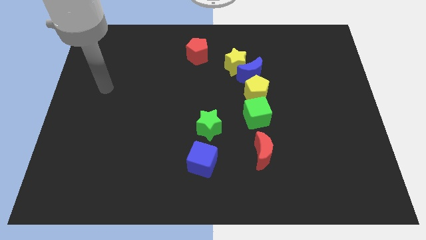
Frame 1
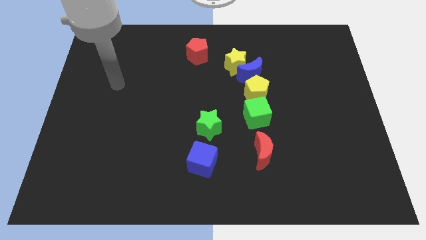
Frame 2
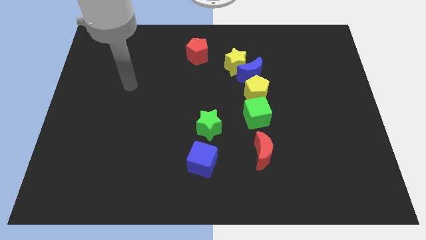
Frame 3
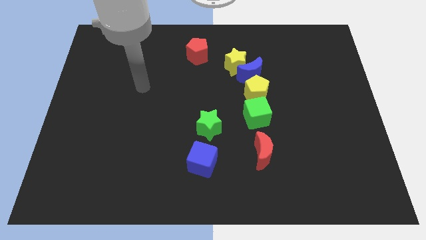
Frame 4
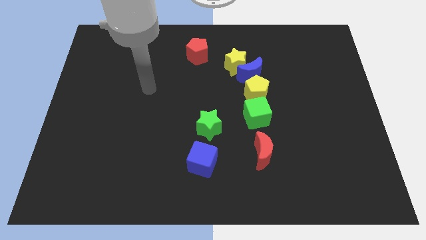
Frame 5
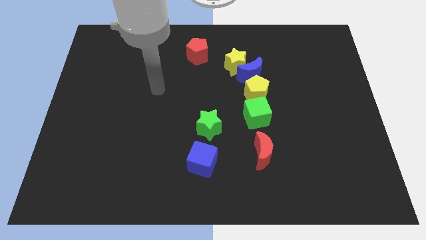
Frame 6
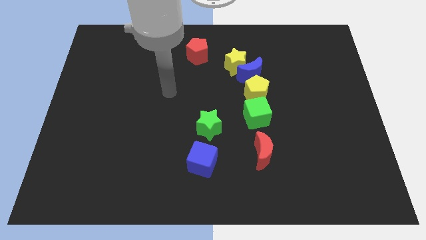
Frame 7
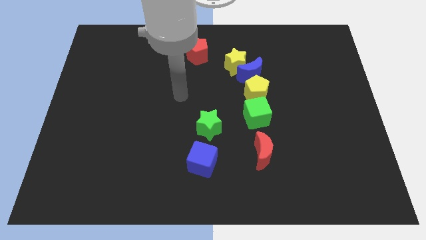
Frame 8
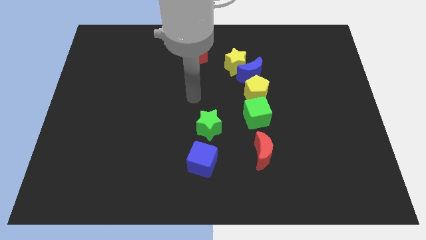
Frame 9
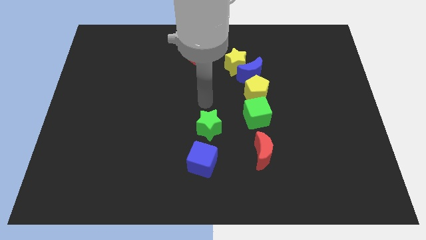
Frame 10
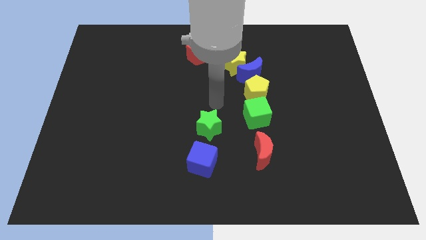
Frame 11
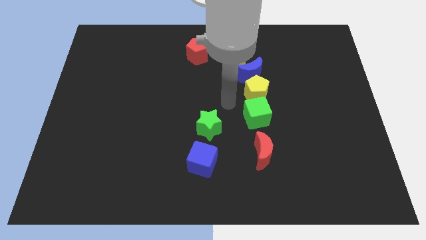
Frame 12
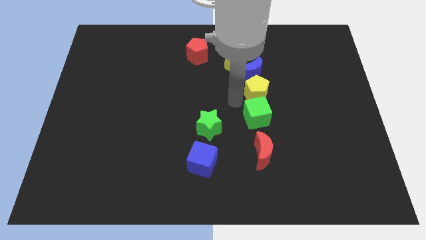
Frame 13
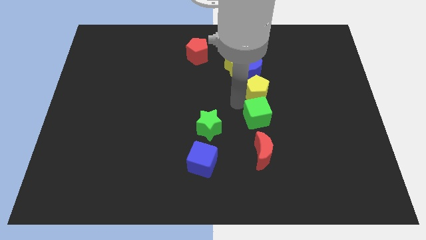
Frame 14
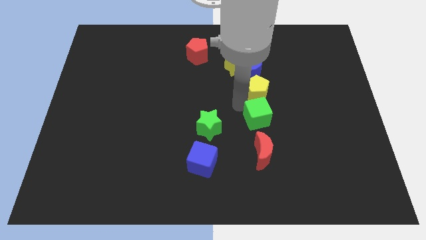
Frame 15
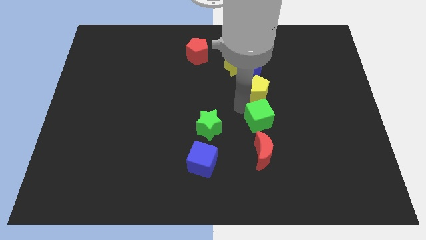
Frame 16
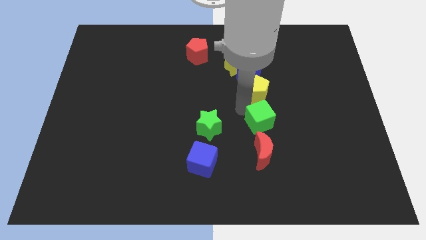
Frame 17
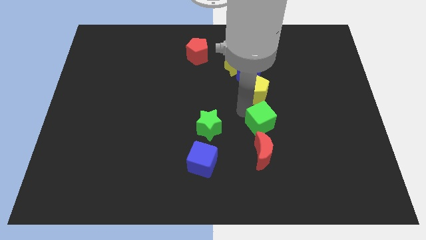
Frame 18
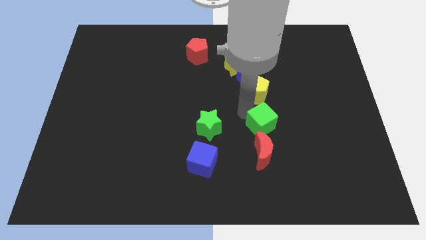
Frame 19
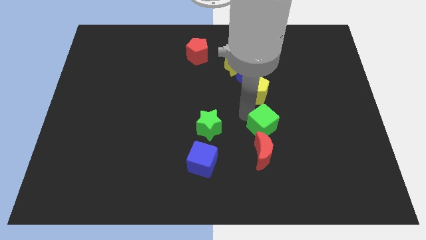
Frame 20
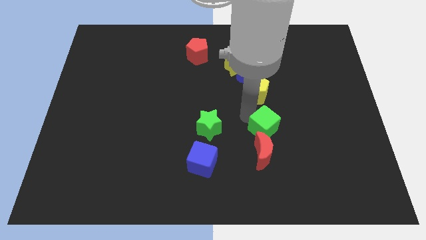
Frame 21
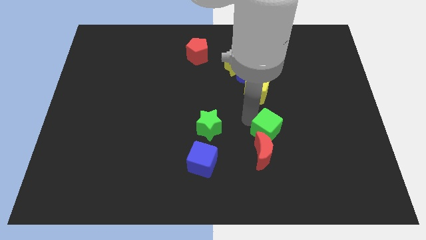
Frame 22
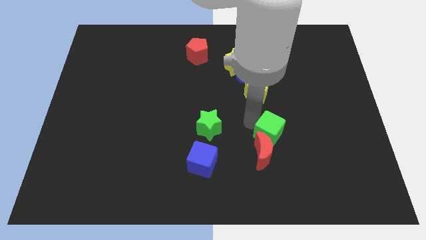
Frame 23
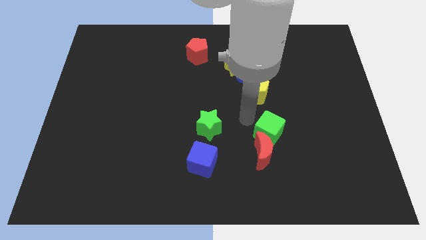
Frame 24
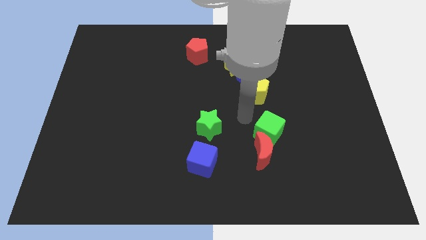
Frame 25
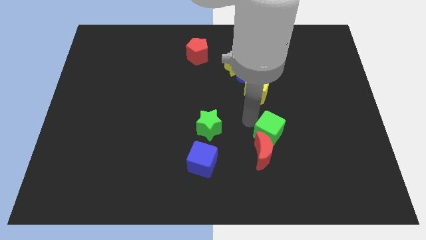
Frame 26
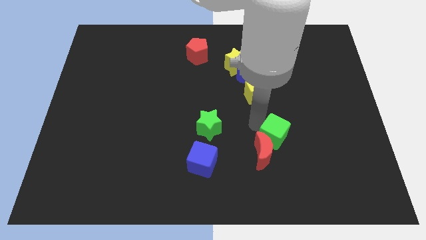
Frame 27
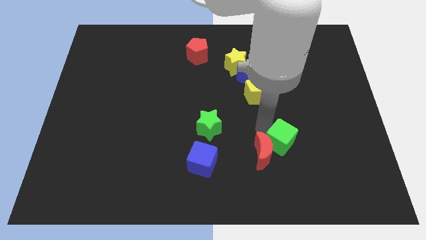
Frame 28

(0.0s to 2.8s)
slide the green cube somewhat down and then right

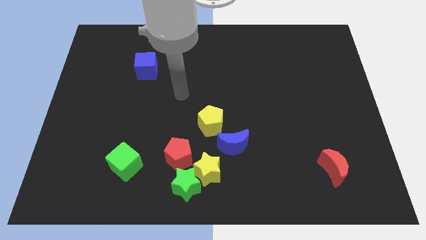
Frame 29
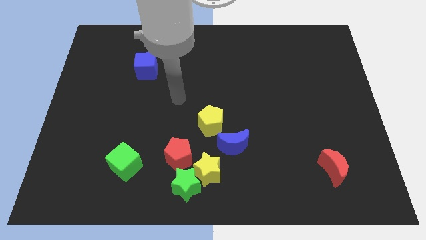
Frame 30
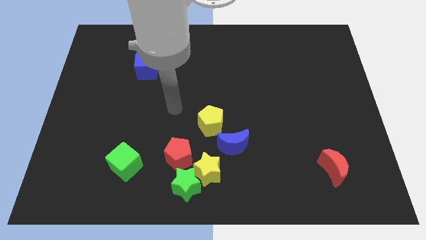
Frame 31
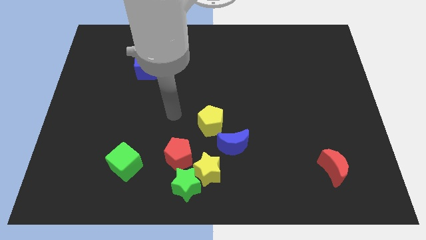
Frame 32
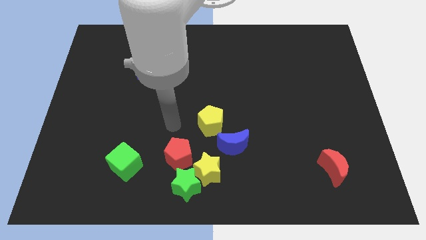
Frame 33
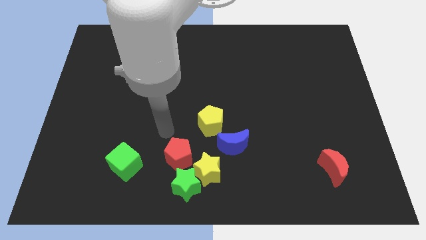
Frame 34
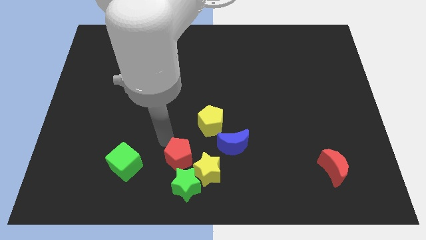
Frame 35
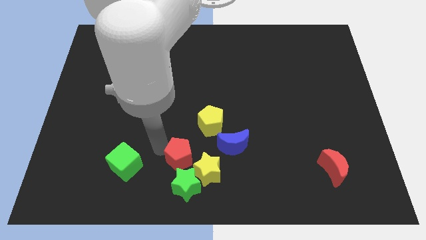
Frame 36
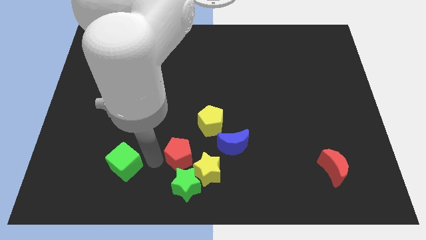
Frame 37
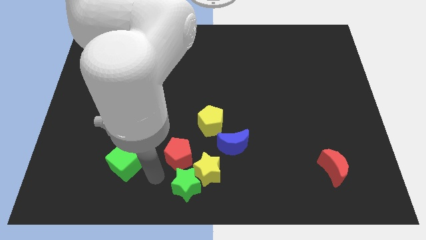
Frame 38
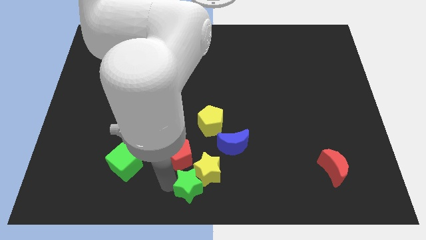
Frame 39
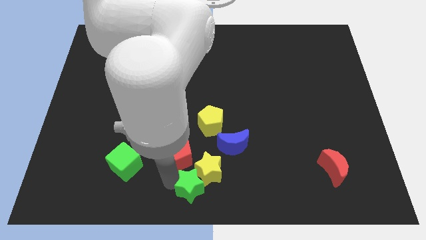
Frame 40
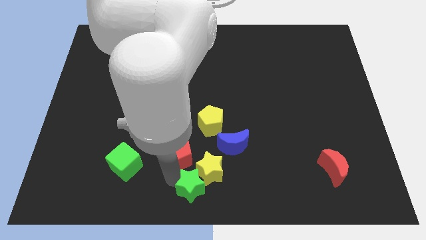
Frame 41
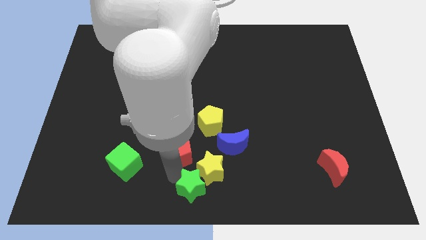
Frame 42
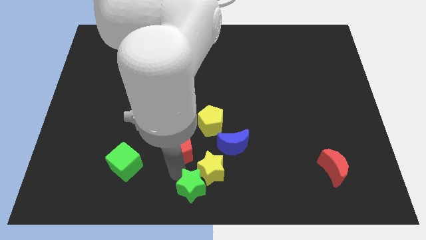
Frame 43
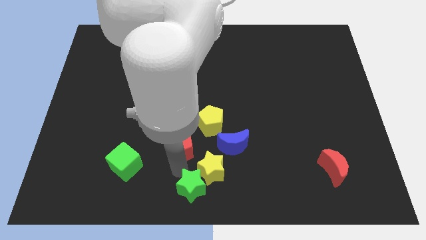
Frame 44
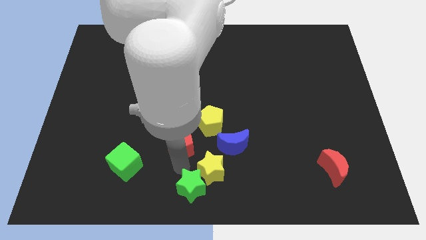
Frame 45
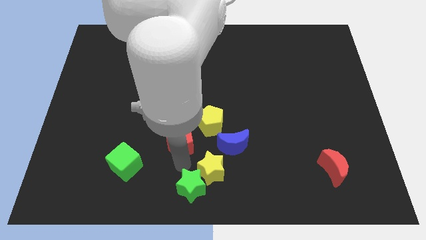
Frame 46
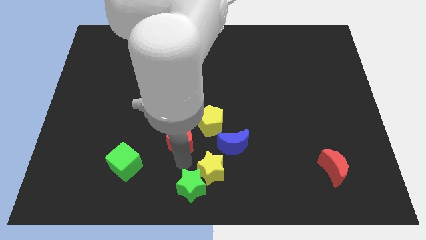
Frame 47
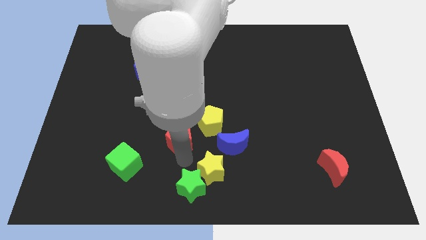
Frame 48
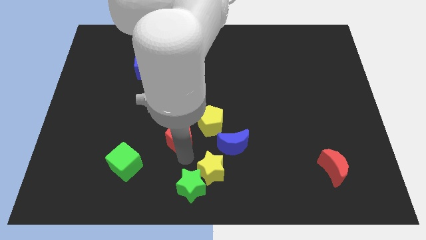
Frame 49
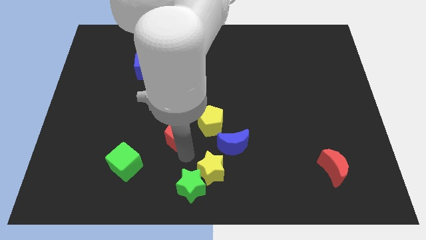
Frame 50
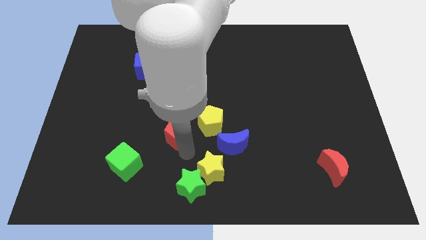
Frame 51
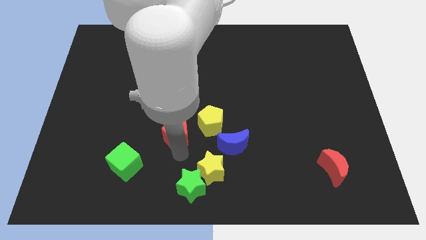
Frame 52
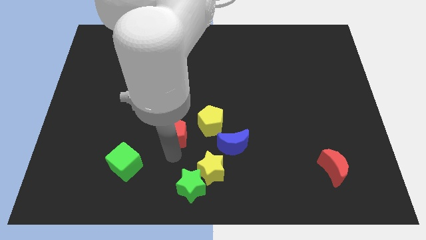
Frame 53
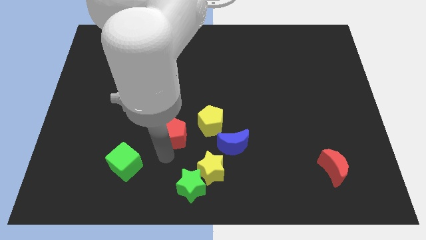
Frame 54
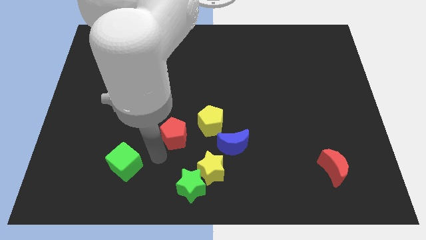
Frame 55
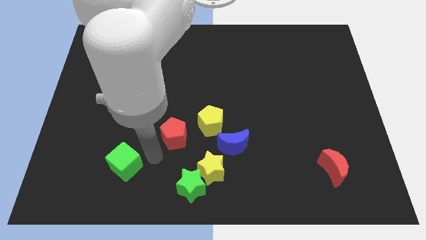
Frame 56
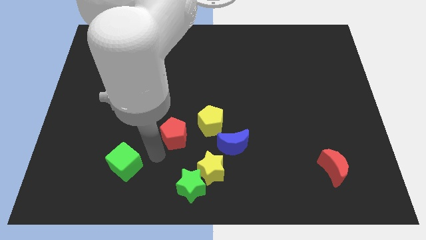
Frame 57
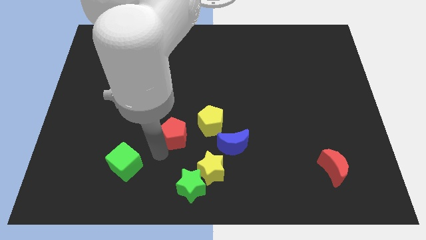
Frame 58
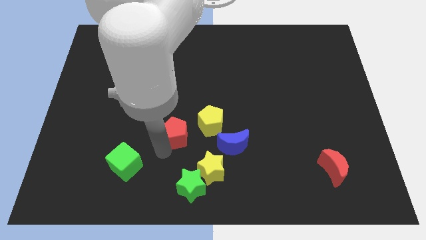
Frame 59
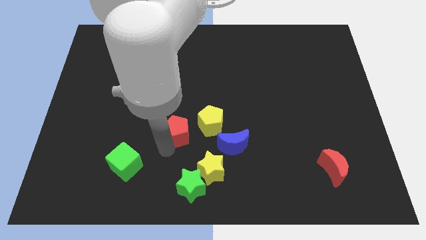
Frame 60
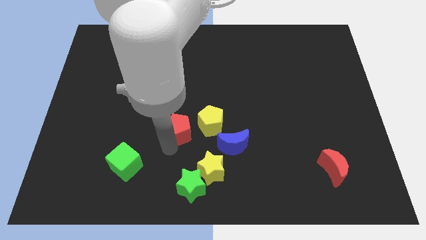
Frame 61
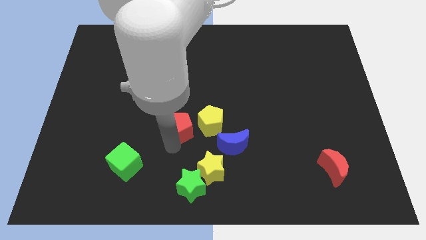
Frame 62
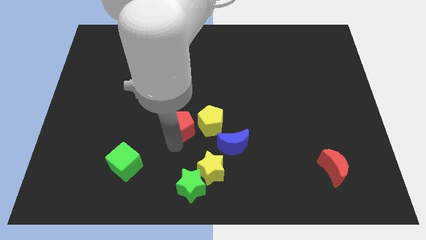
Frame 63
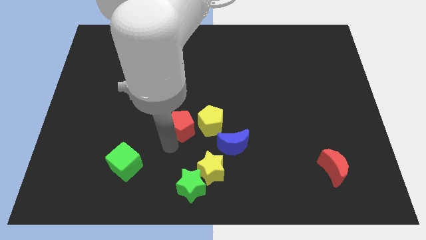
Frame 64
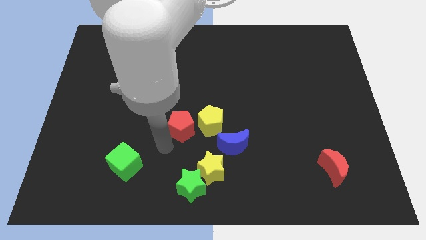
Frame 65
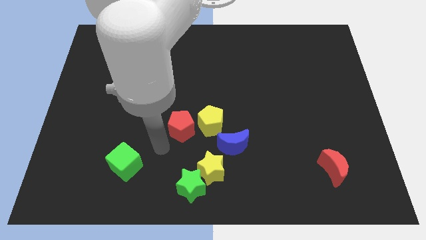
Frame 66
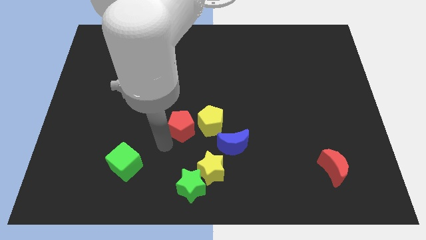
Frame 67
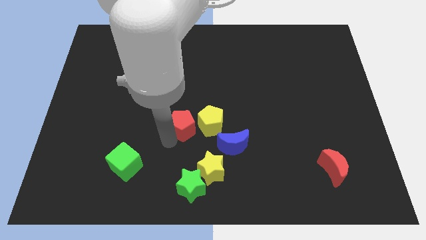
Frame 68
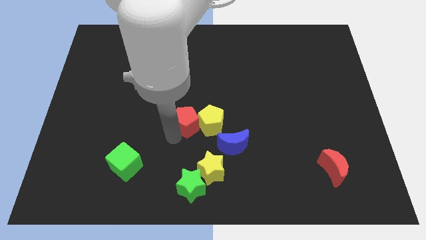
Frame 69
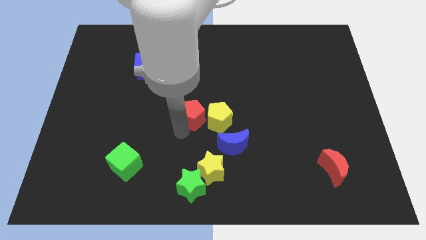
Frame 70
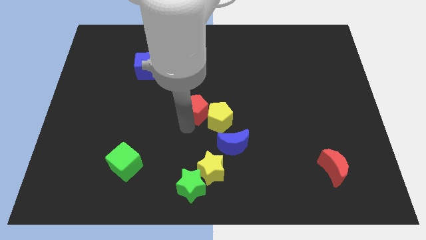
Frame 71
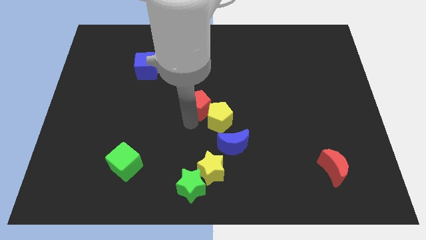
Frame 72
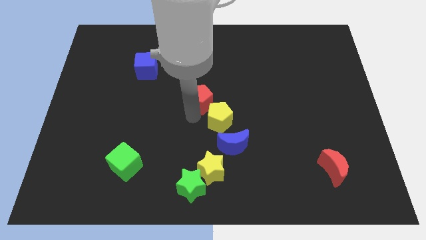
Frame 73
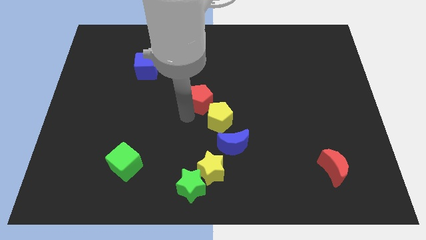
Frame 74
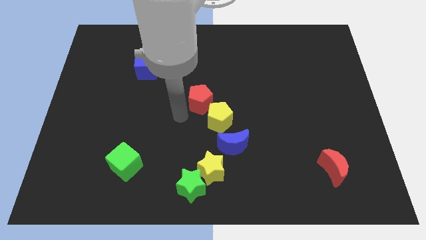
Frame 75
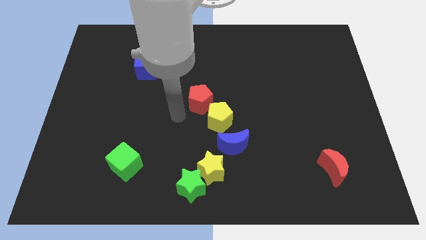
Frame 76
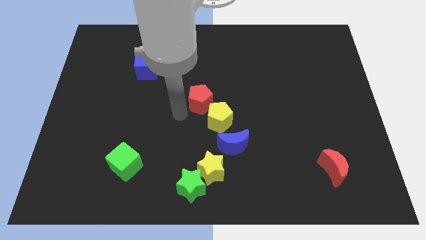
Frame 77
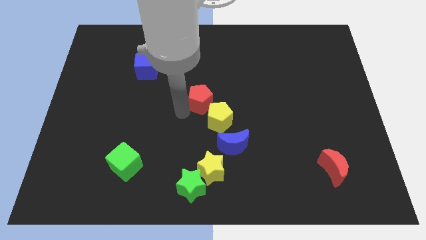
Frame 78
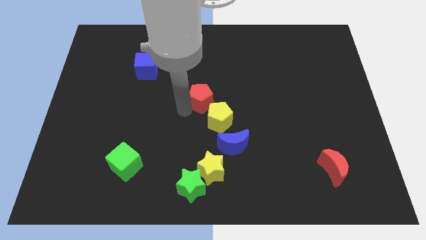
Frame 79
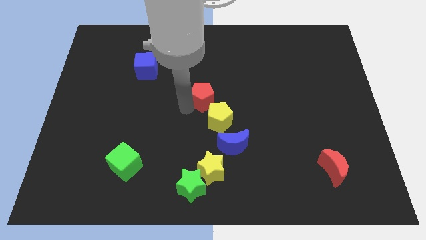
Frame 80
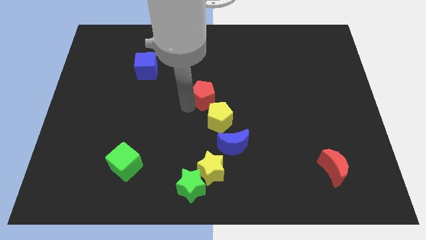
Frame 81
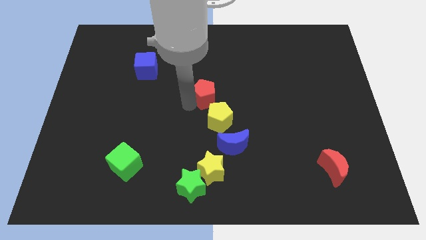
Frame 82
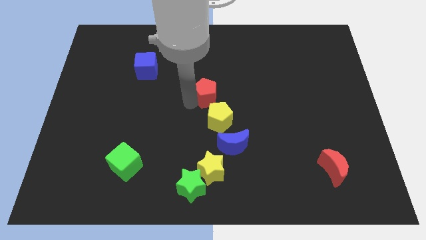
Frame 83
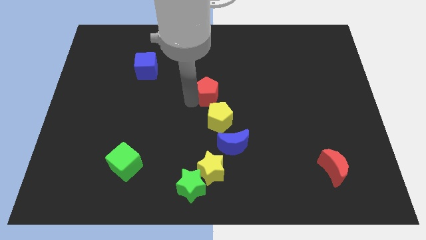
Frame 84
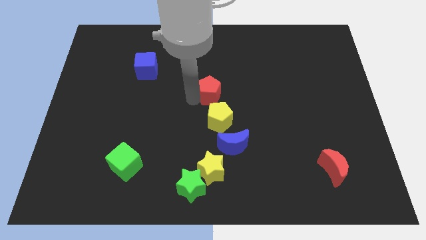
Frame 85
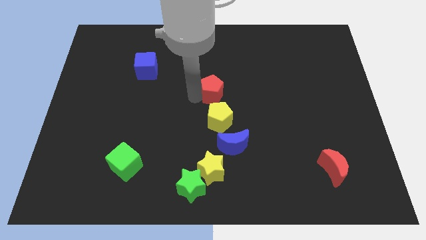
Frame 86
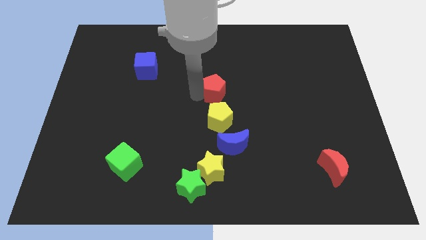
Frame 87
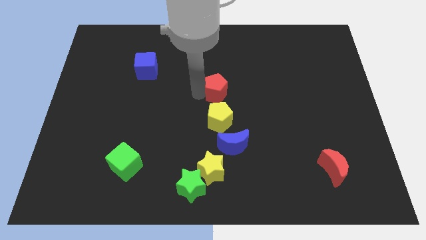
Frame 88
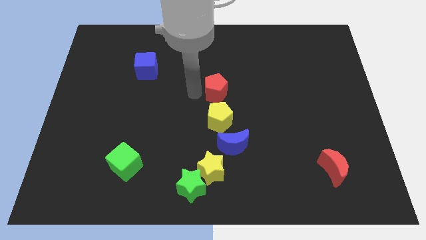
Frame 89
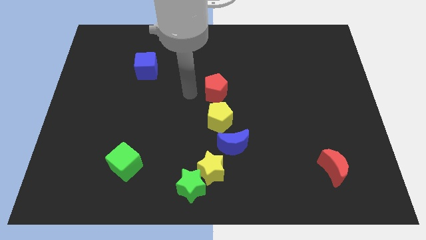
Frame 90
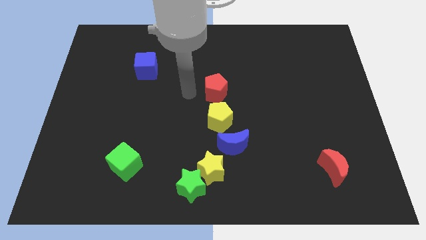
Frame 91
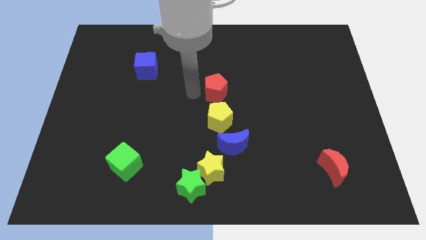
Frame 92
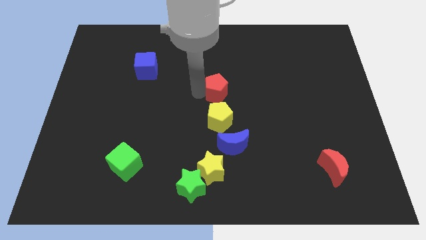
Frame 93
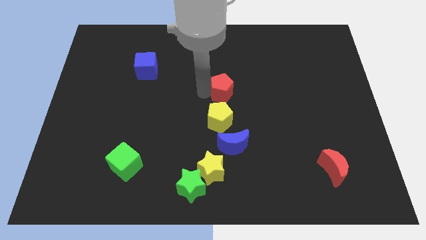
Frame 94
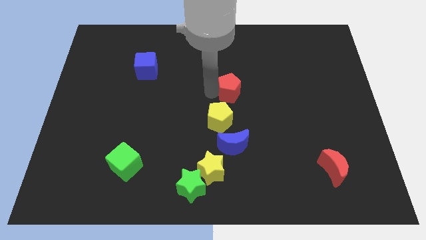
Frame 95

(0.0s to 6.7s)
push the red pentagon upwards and then right
